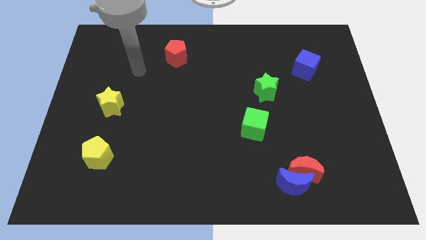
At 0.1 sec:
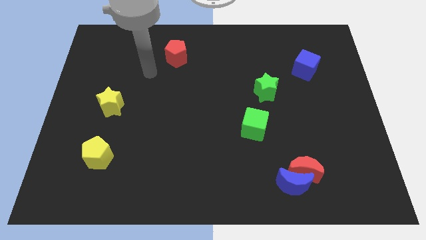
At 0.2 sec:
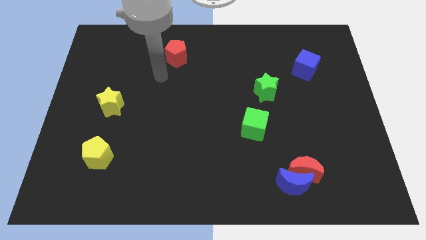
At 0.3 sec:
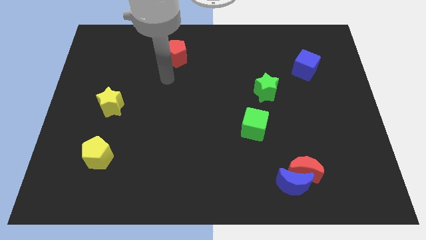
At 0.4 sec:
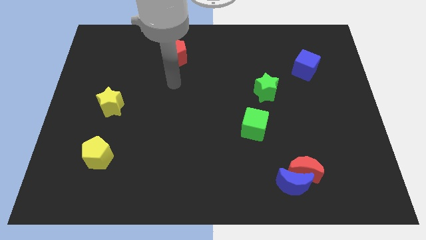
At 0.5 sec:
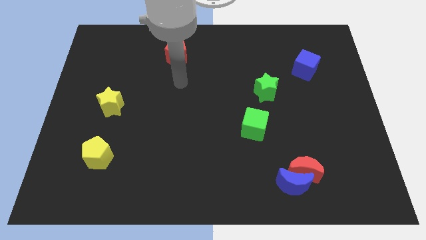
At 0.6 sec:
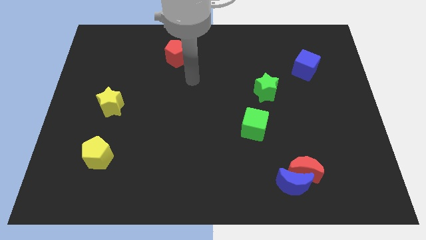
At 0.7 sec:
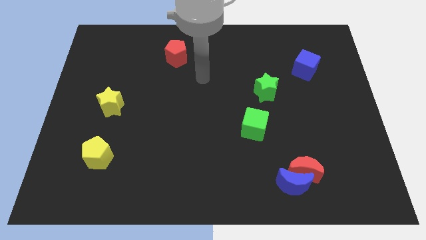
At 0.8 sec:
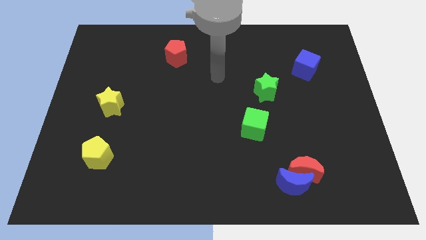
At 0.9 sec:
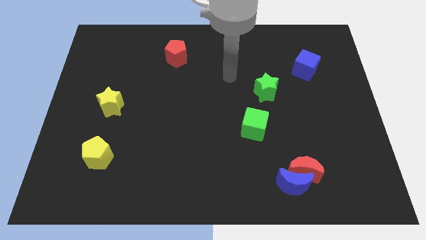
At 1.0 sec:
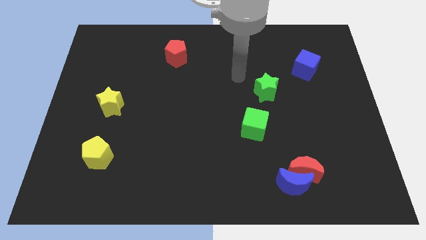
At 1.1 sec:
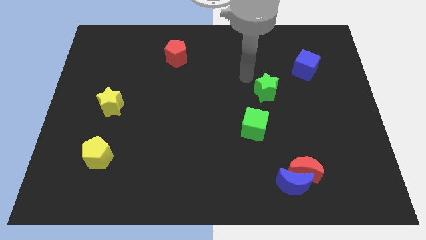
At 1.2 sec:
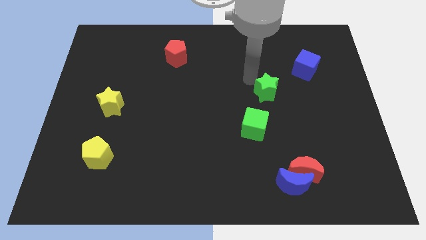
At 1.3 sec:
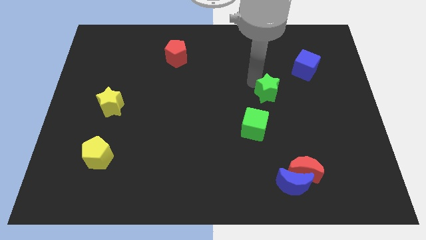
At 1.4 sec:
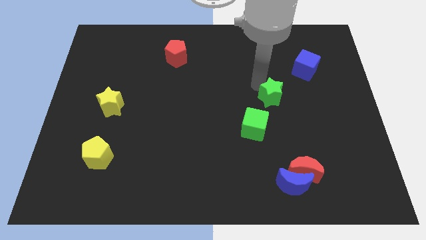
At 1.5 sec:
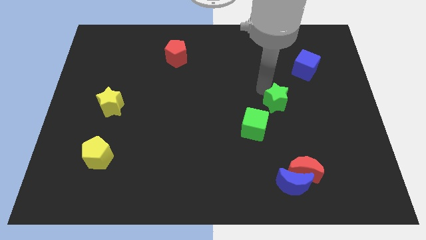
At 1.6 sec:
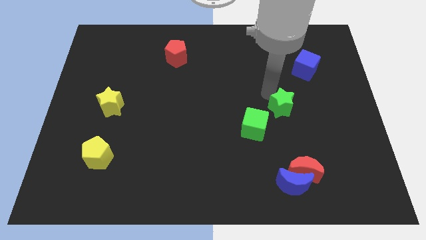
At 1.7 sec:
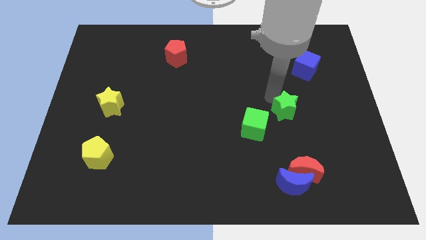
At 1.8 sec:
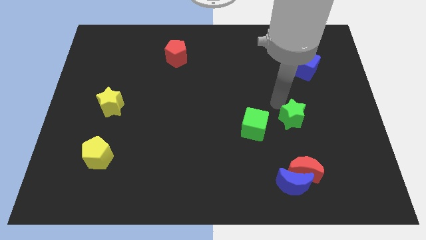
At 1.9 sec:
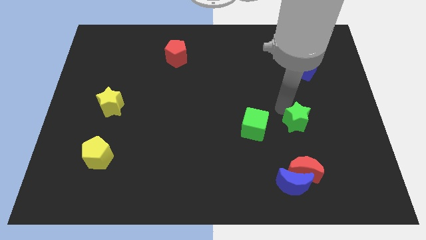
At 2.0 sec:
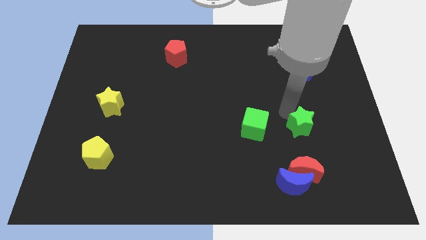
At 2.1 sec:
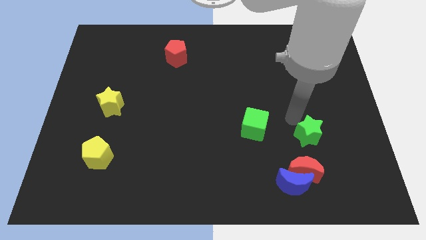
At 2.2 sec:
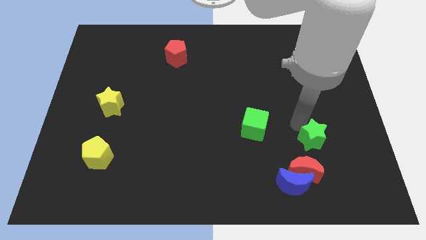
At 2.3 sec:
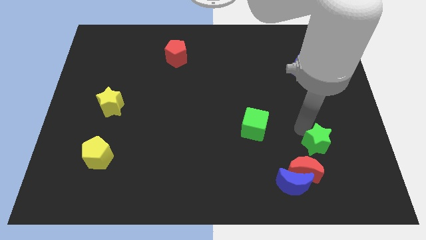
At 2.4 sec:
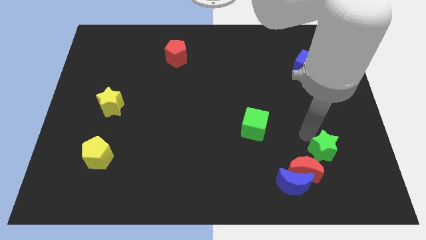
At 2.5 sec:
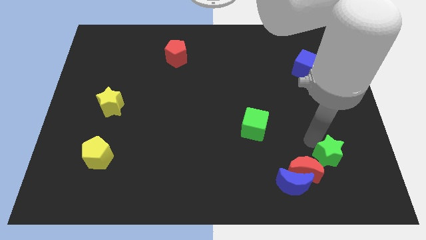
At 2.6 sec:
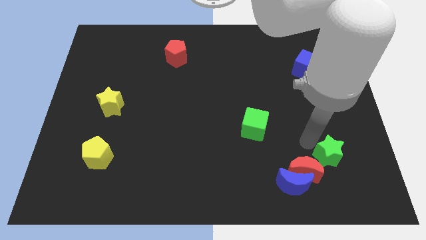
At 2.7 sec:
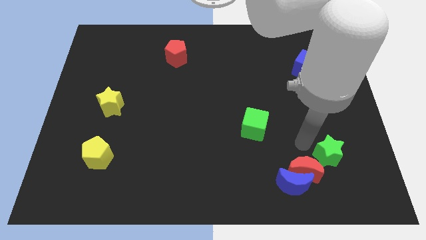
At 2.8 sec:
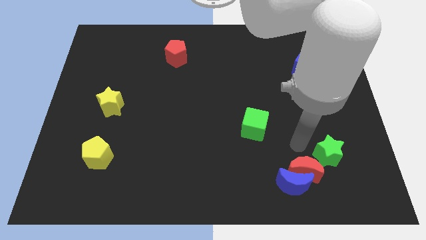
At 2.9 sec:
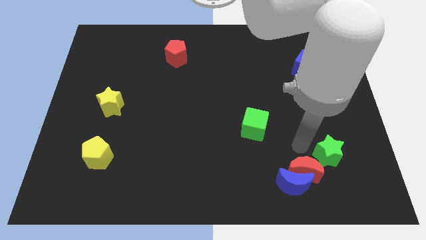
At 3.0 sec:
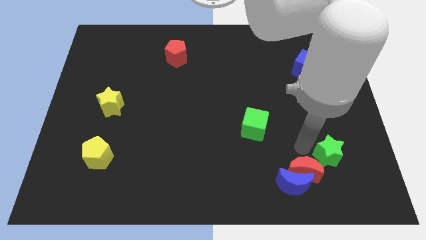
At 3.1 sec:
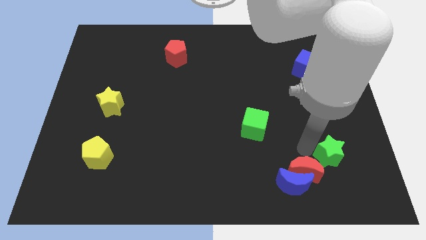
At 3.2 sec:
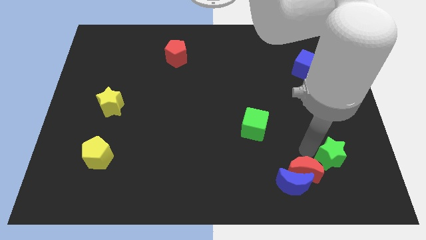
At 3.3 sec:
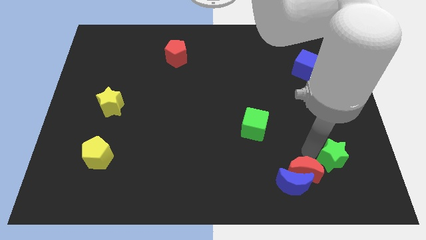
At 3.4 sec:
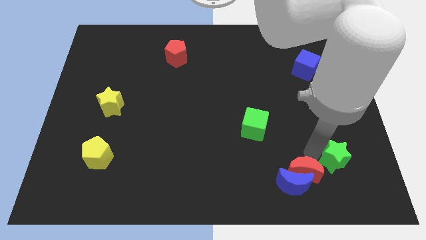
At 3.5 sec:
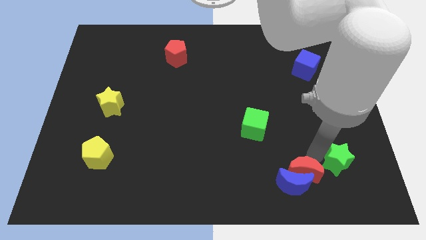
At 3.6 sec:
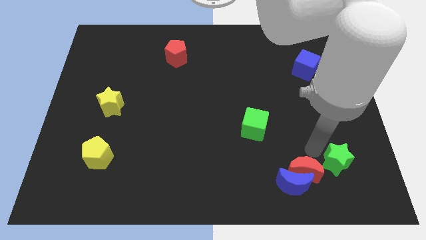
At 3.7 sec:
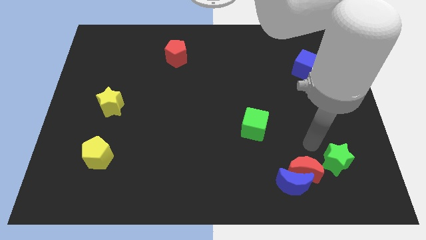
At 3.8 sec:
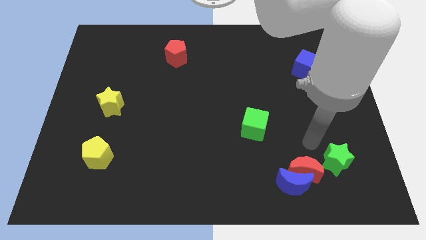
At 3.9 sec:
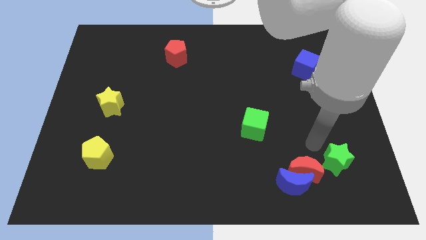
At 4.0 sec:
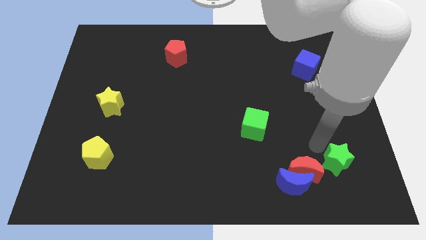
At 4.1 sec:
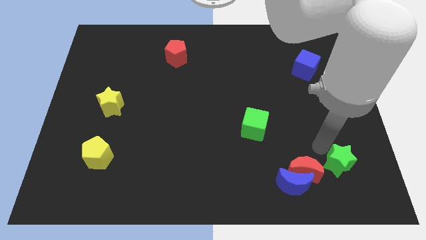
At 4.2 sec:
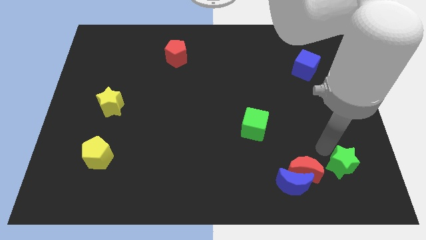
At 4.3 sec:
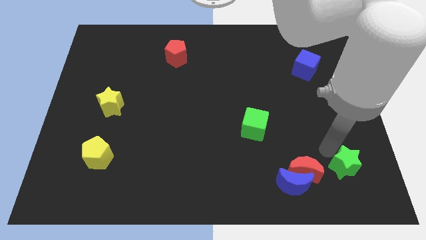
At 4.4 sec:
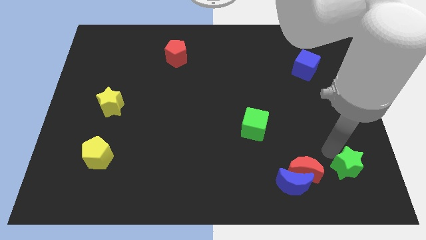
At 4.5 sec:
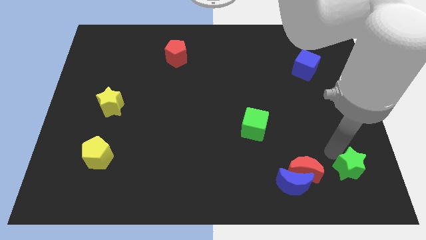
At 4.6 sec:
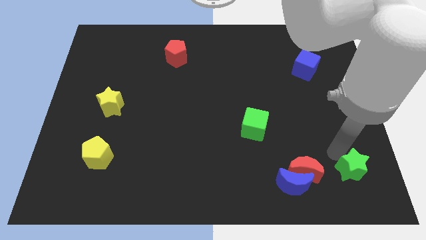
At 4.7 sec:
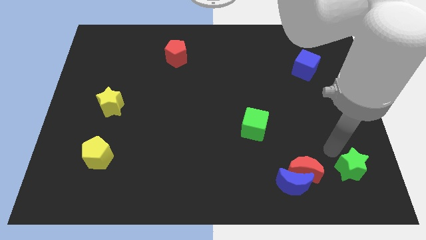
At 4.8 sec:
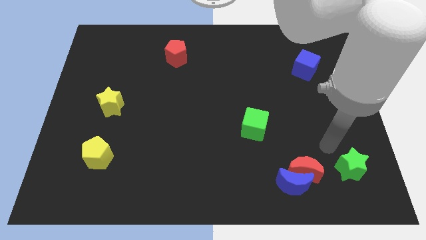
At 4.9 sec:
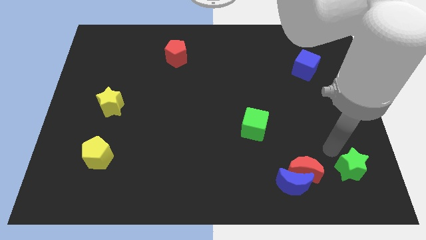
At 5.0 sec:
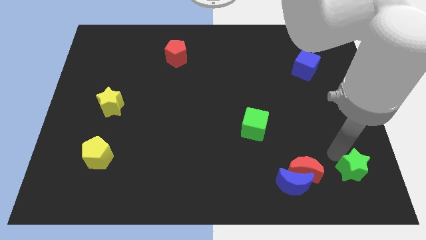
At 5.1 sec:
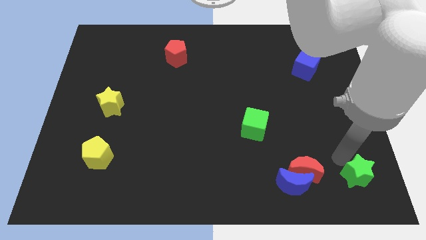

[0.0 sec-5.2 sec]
put the green star to the lower right corner
